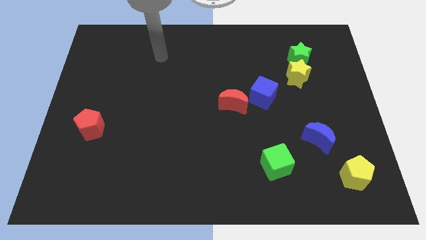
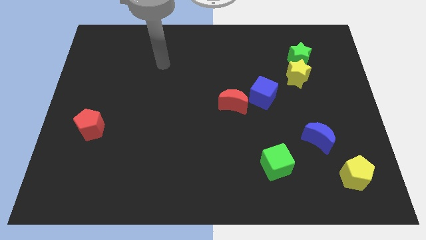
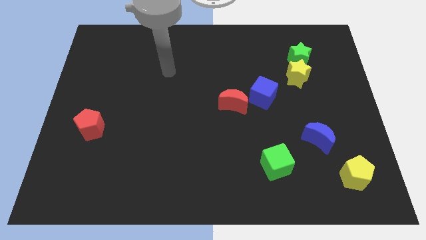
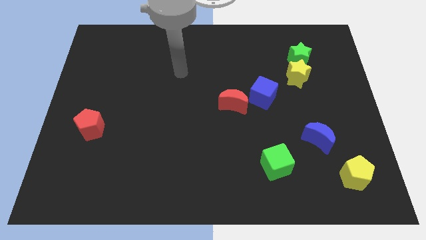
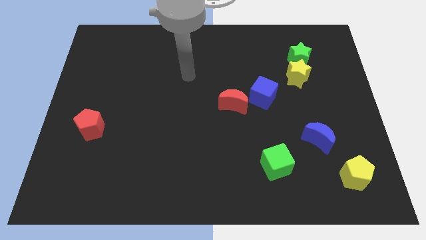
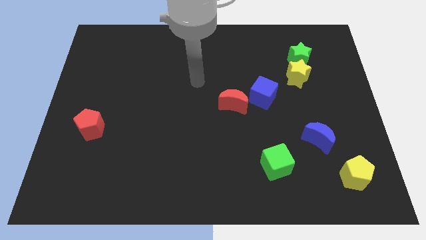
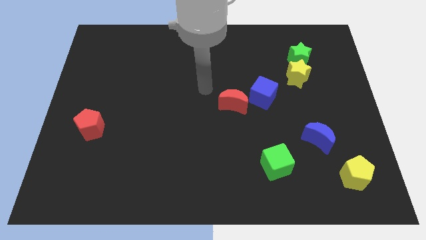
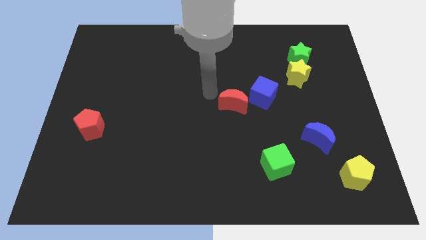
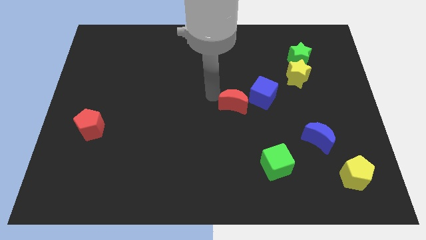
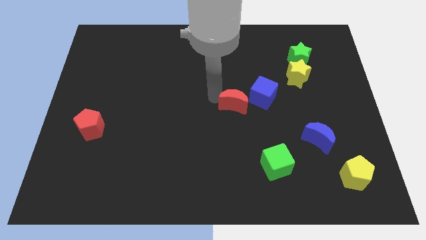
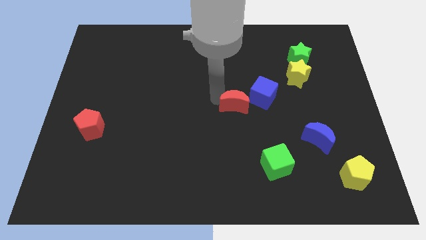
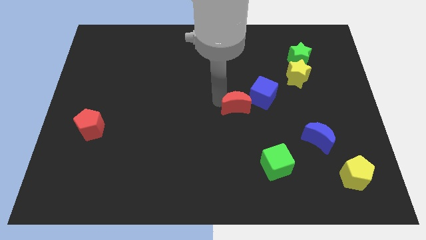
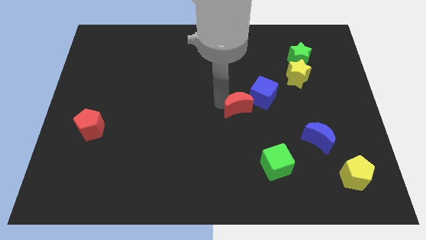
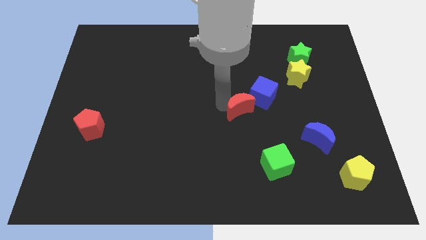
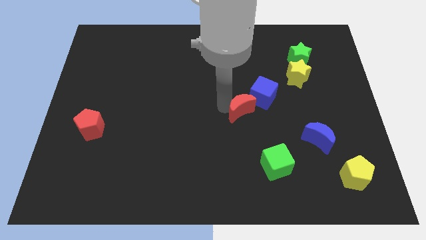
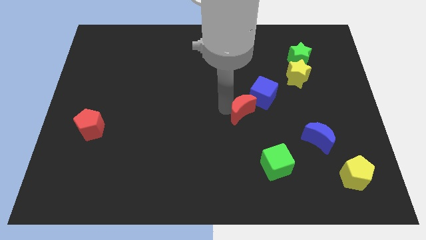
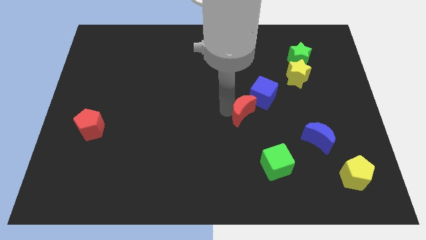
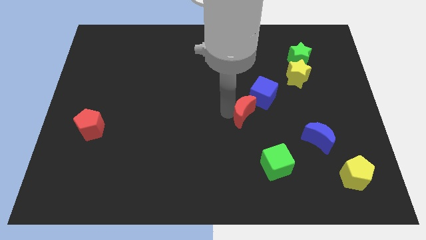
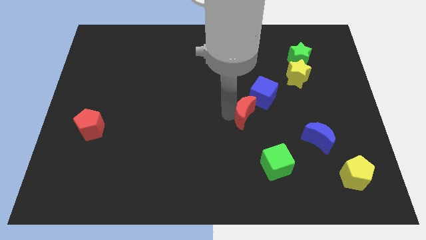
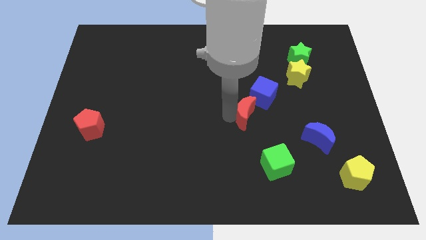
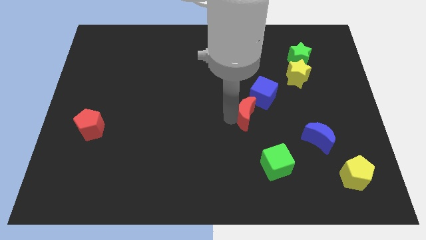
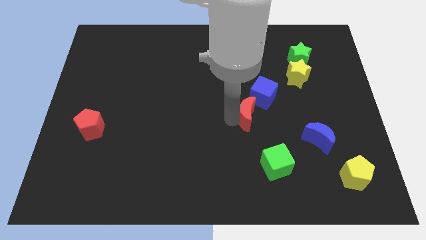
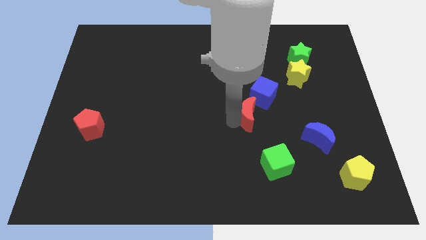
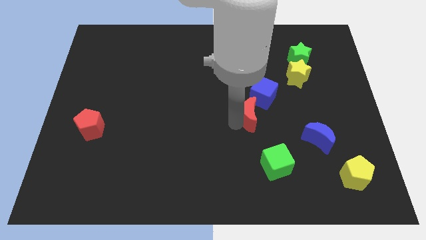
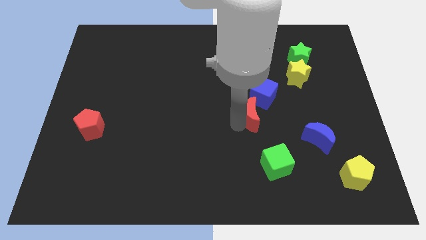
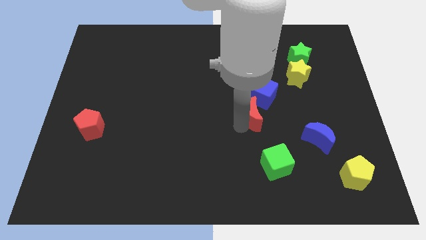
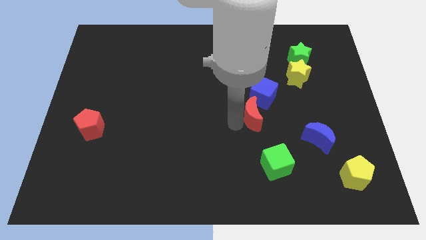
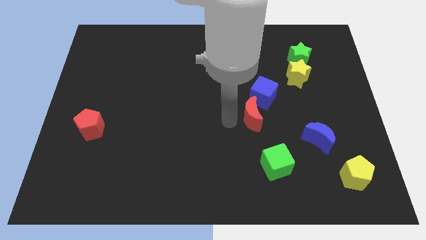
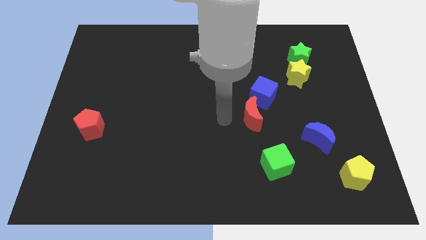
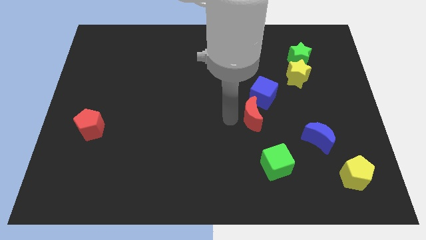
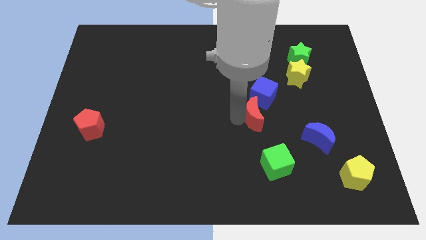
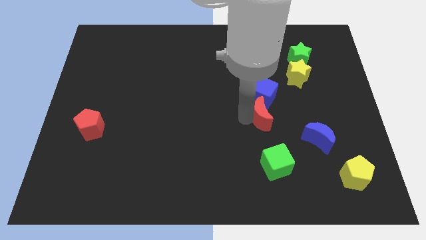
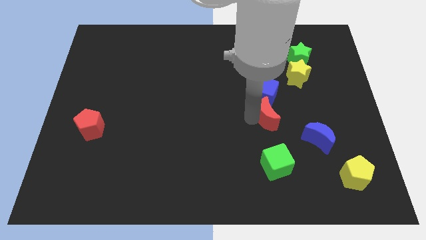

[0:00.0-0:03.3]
slide the red moon a little to the right

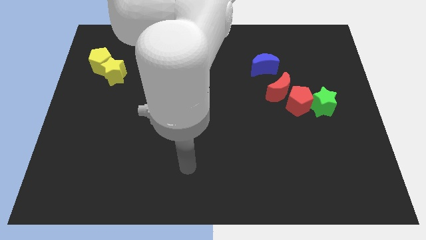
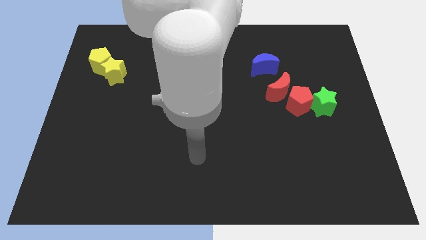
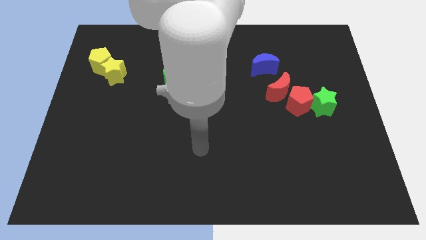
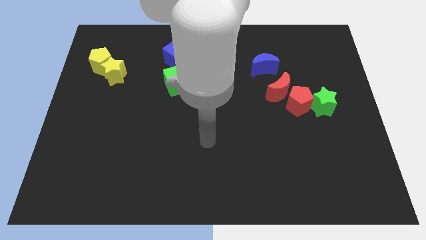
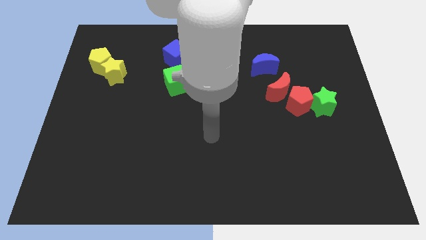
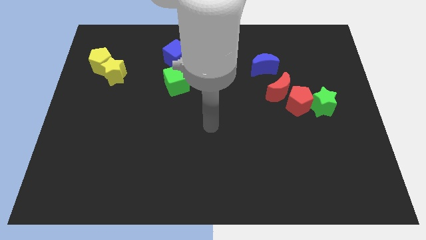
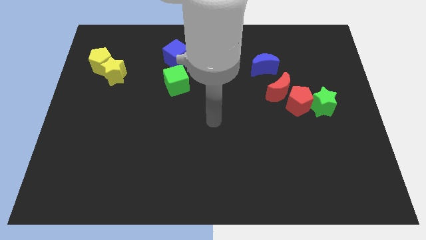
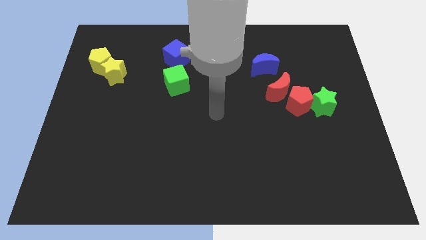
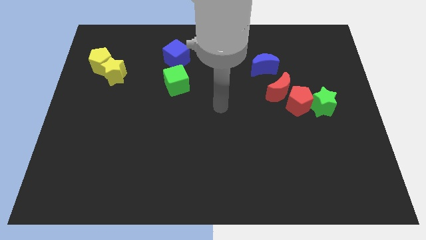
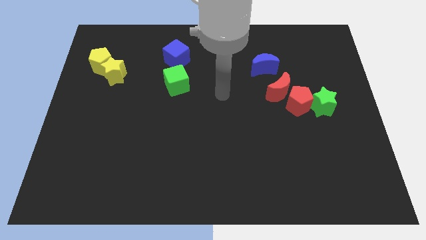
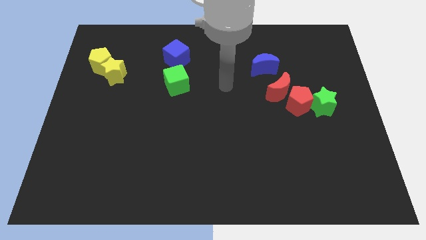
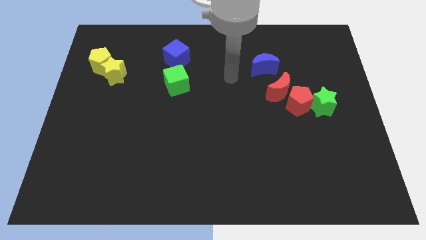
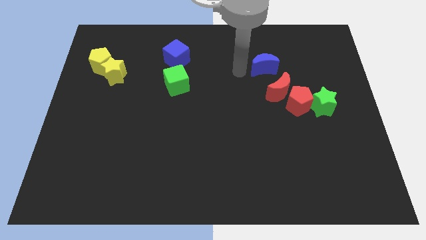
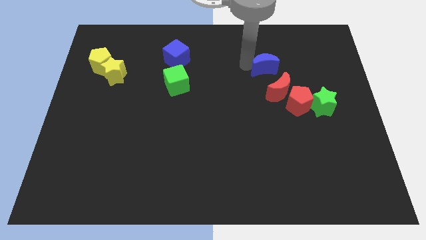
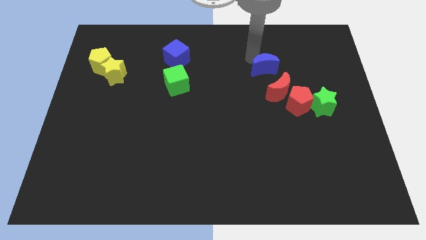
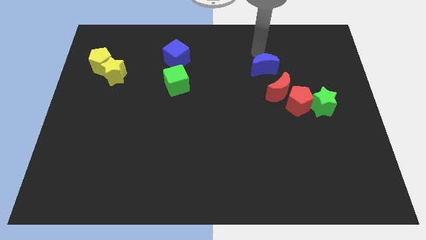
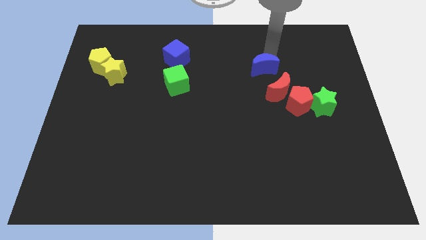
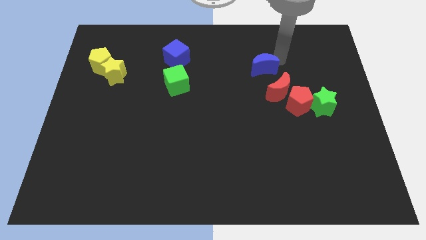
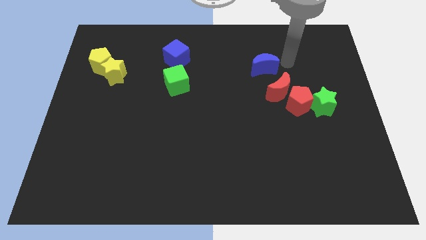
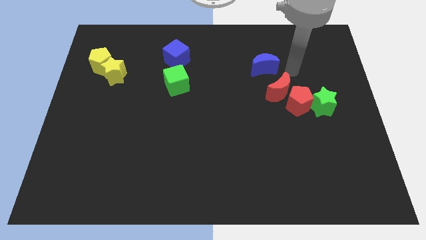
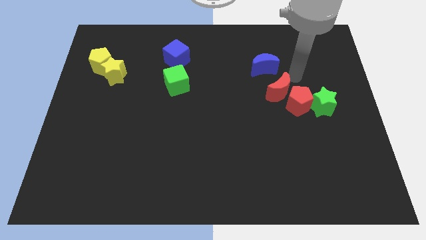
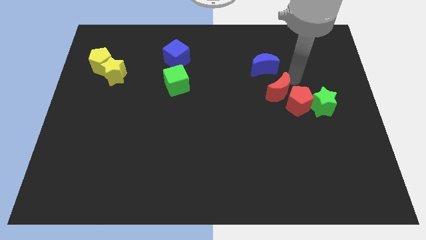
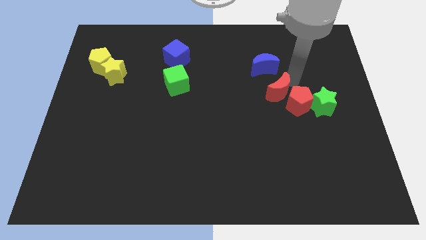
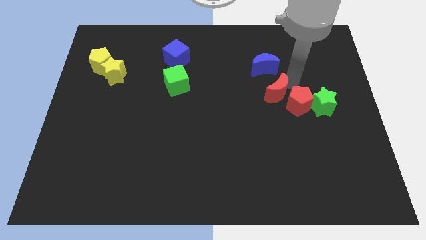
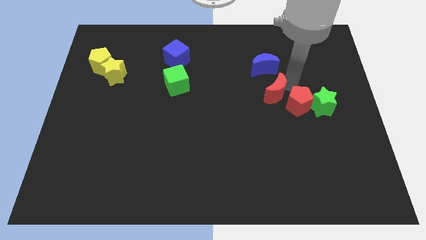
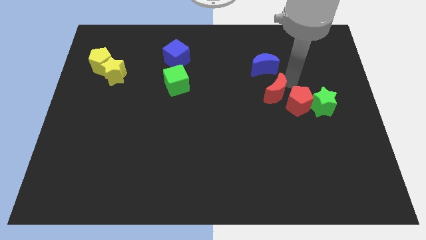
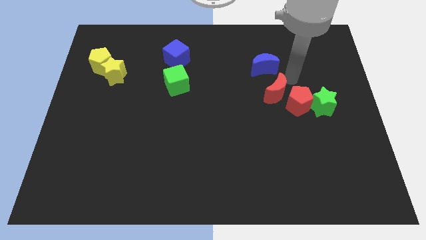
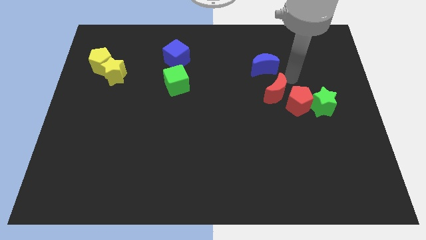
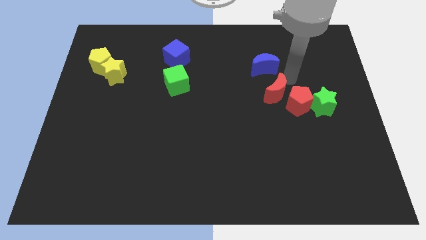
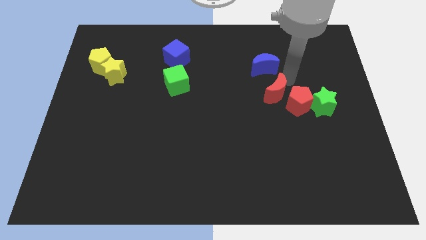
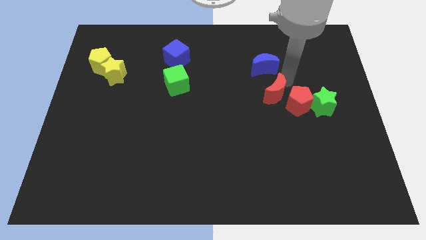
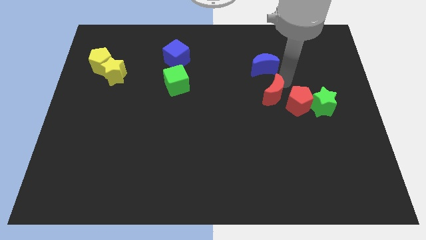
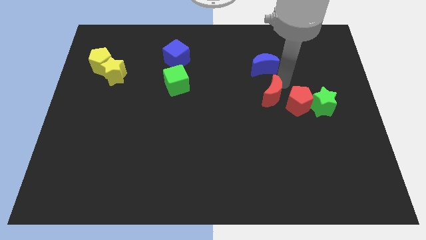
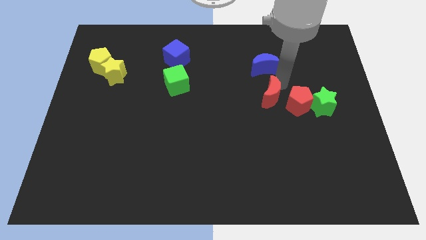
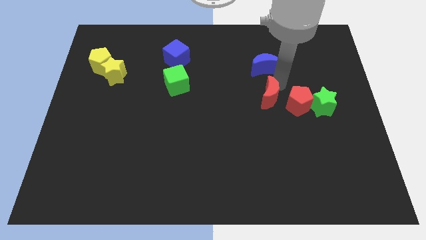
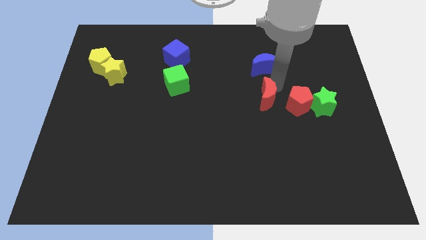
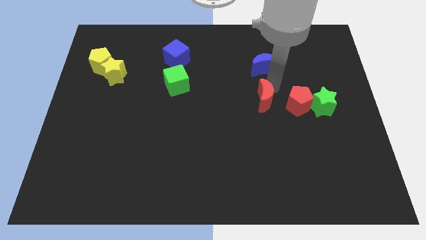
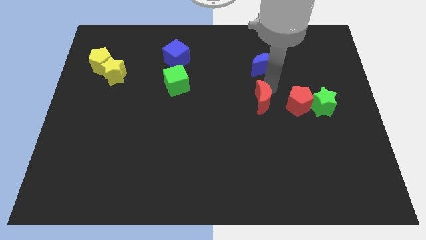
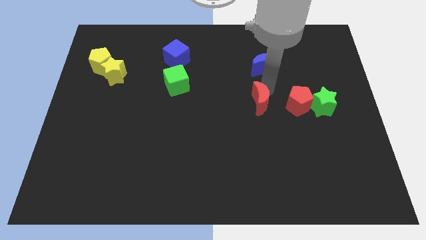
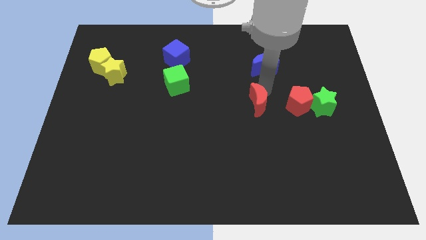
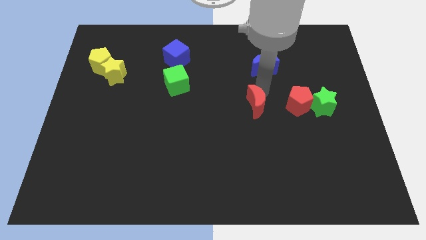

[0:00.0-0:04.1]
move the red moon diagonally down and left somewhat

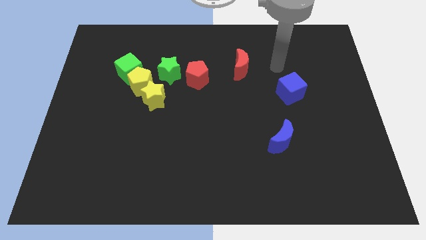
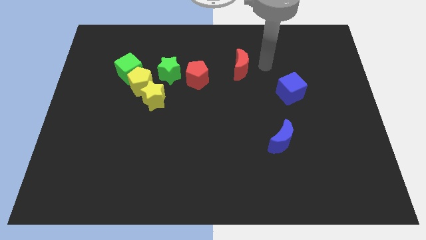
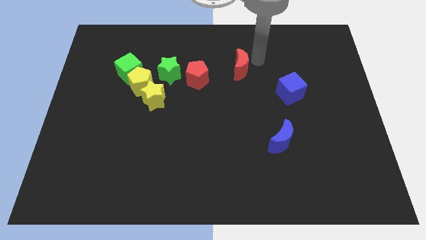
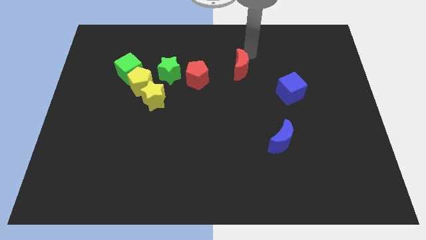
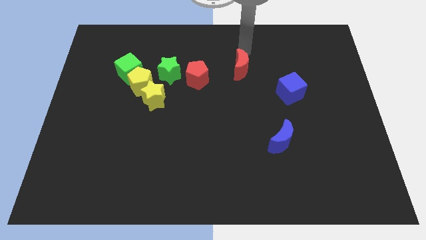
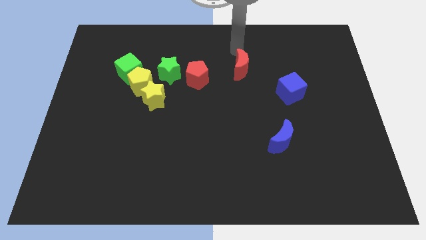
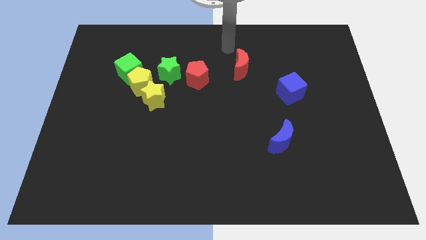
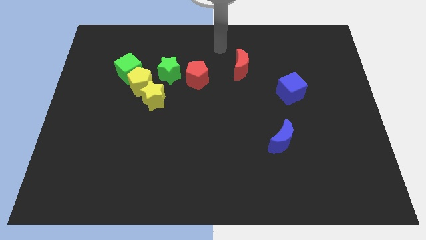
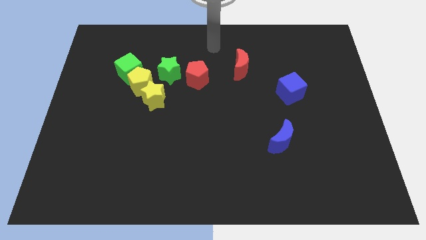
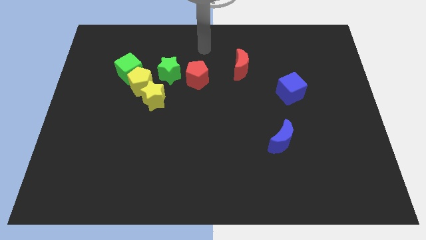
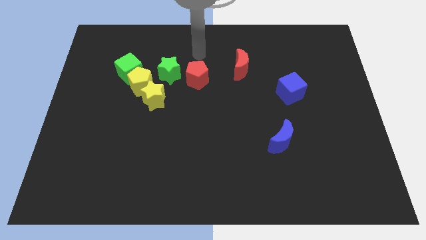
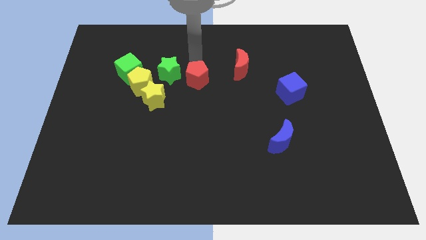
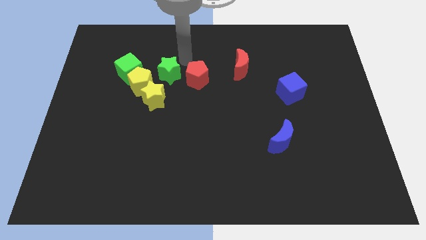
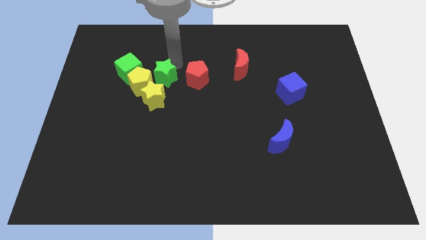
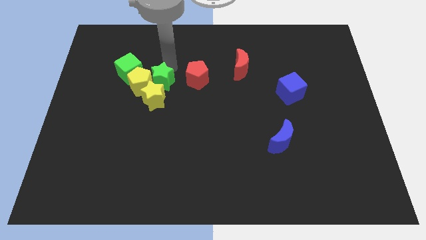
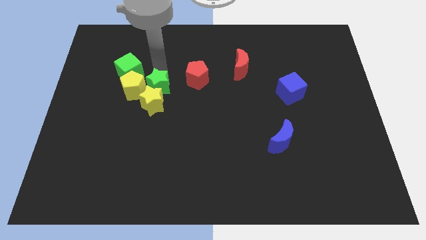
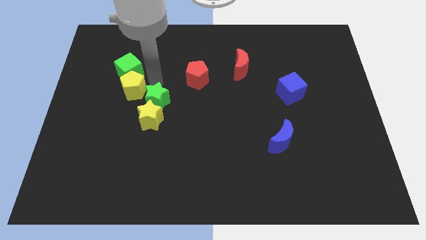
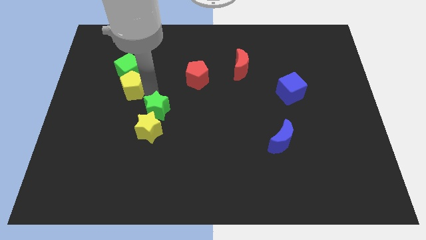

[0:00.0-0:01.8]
slightly slide the yellow star downwards
